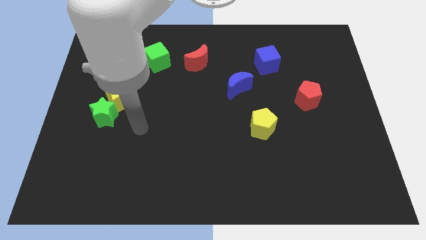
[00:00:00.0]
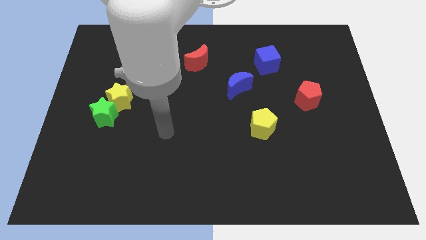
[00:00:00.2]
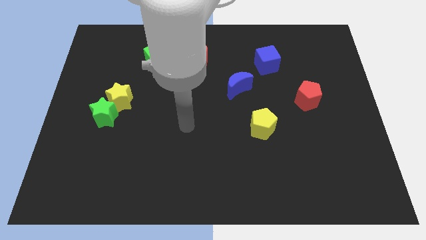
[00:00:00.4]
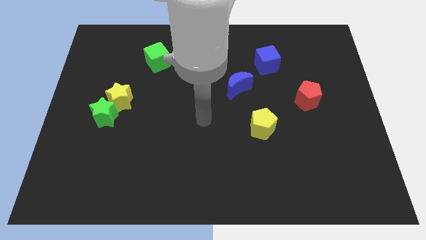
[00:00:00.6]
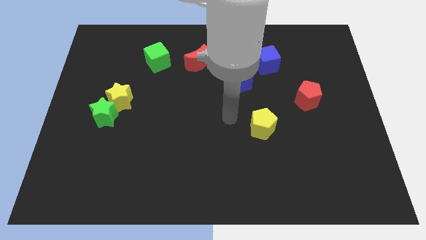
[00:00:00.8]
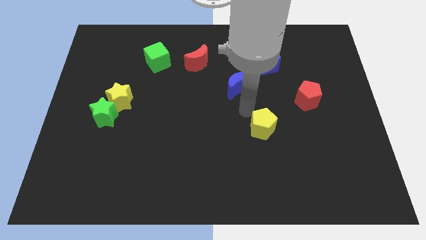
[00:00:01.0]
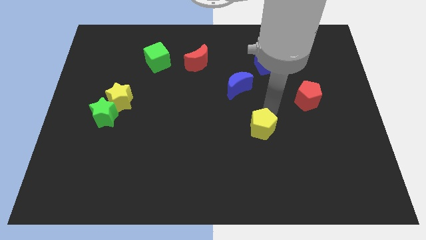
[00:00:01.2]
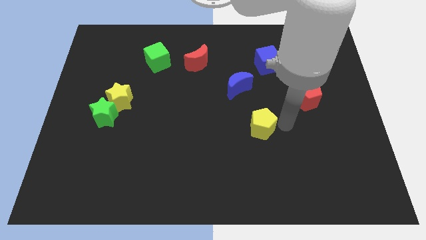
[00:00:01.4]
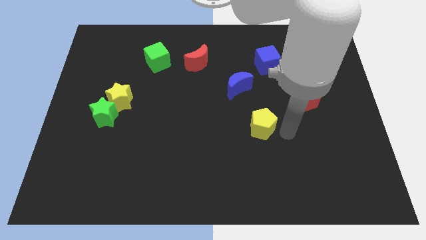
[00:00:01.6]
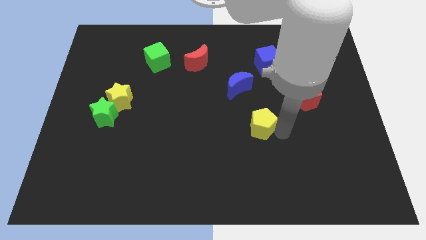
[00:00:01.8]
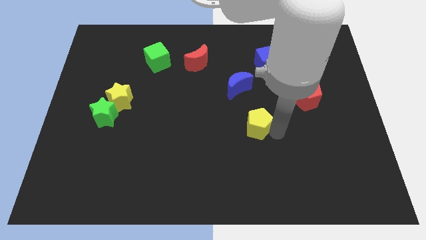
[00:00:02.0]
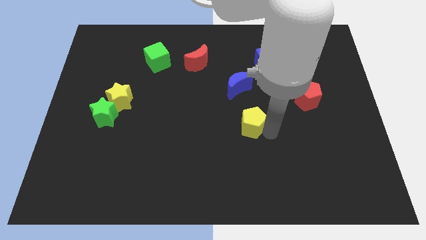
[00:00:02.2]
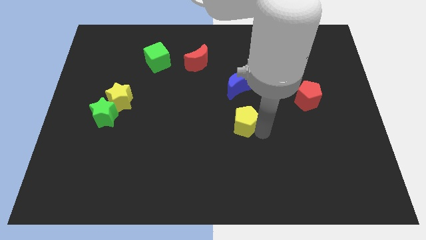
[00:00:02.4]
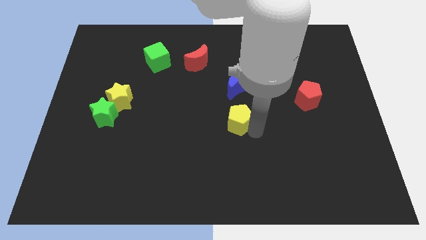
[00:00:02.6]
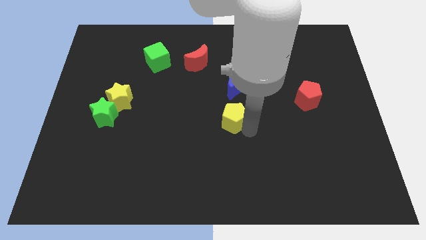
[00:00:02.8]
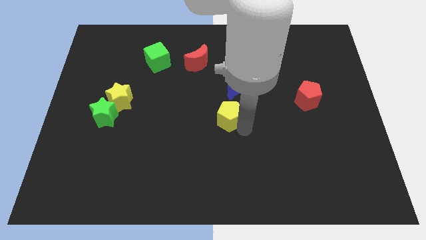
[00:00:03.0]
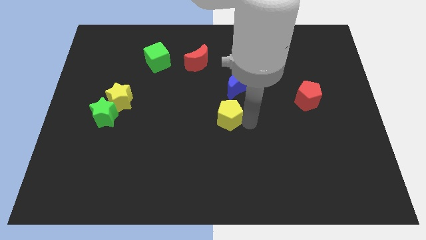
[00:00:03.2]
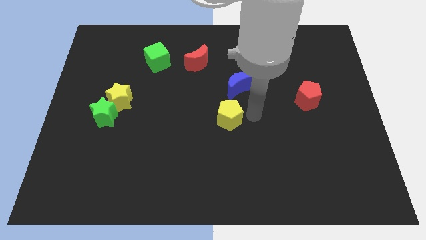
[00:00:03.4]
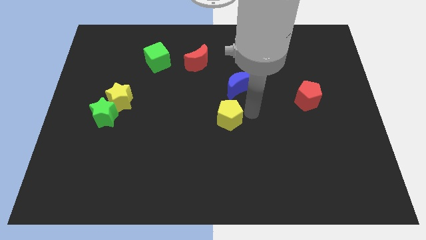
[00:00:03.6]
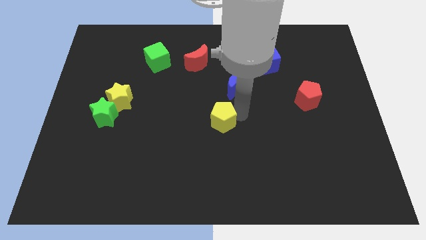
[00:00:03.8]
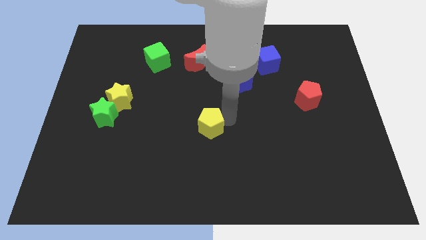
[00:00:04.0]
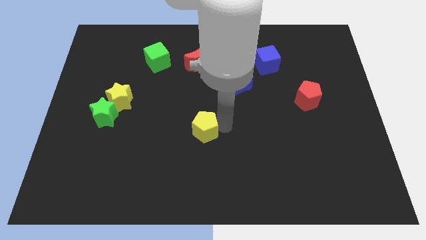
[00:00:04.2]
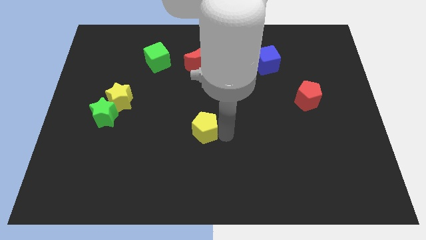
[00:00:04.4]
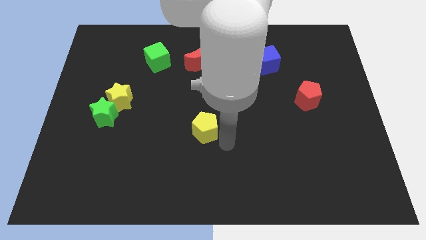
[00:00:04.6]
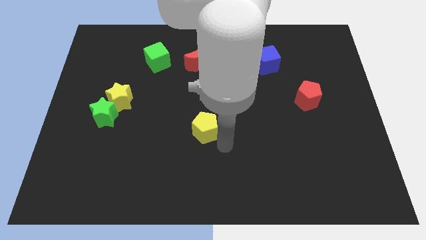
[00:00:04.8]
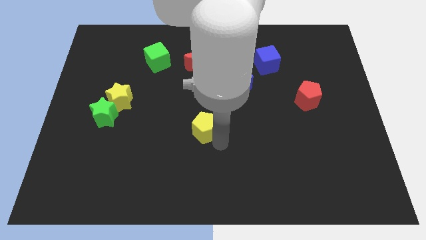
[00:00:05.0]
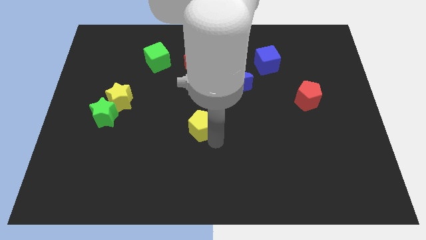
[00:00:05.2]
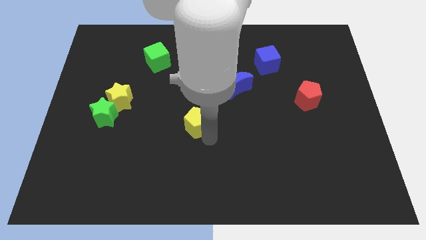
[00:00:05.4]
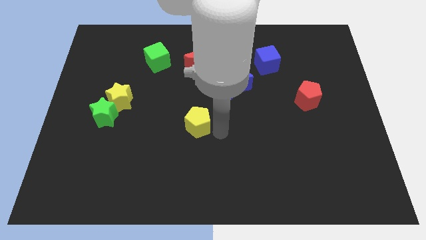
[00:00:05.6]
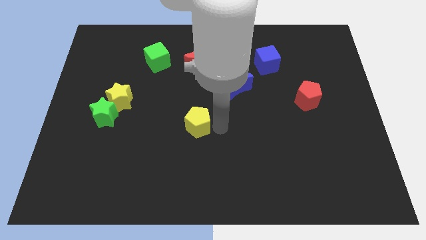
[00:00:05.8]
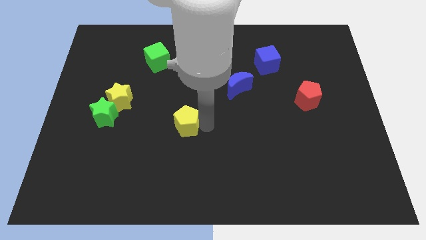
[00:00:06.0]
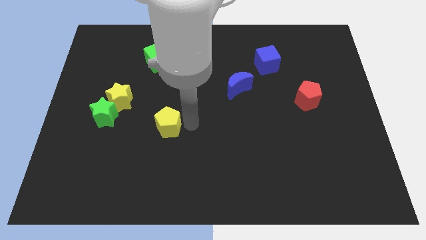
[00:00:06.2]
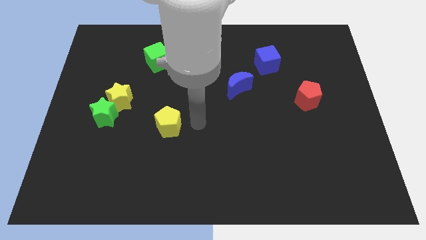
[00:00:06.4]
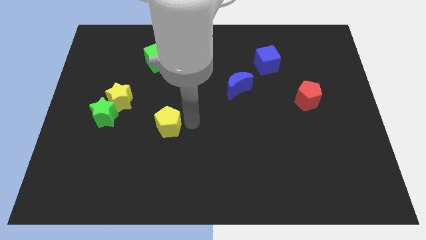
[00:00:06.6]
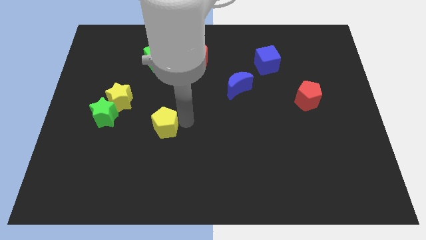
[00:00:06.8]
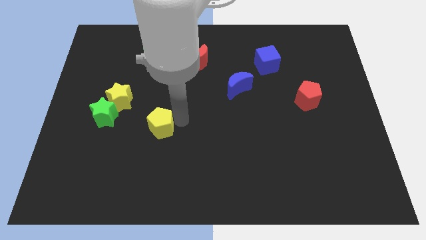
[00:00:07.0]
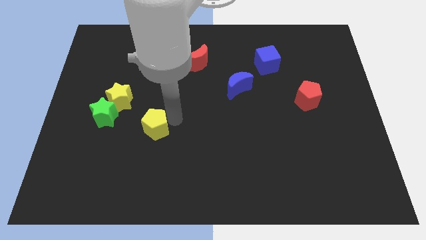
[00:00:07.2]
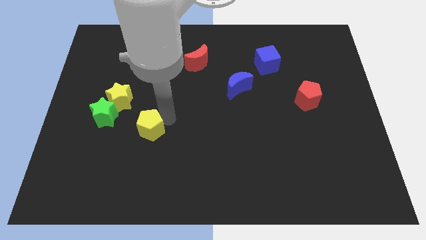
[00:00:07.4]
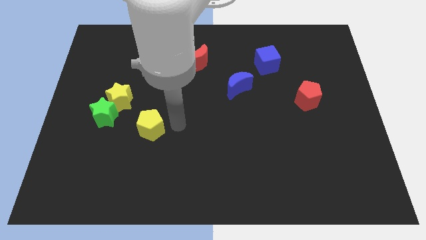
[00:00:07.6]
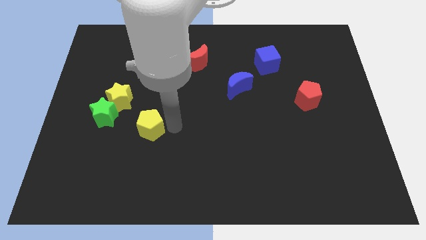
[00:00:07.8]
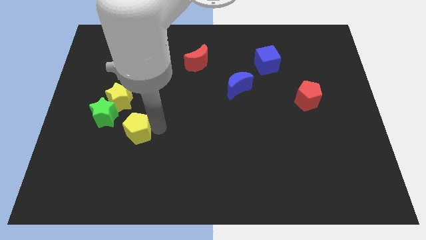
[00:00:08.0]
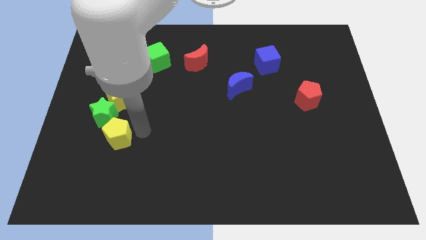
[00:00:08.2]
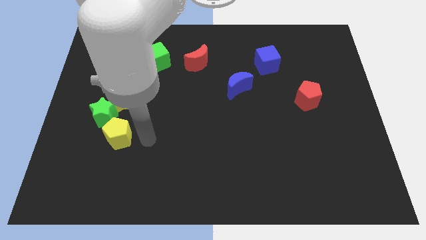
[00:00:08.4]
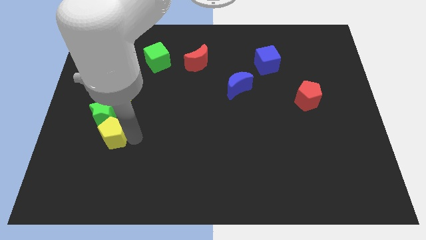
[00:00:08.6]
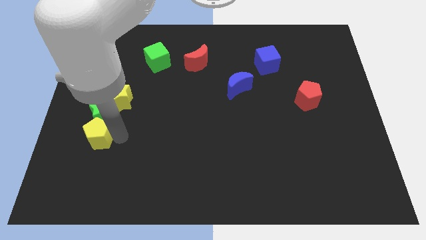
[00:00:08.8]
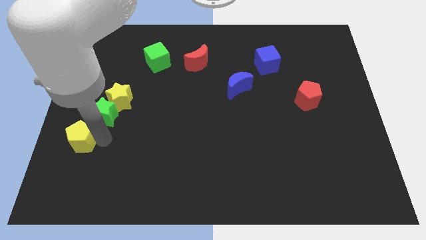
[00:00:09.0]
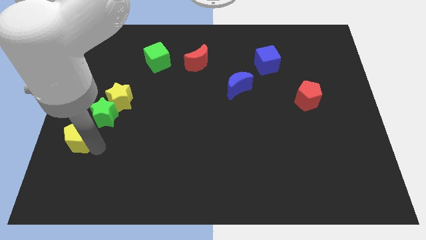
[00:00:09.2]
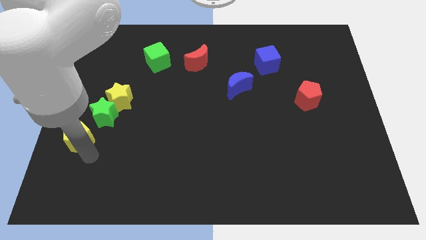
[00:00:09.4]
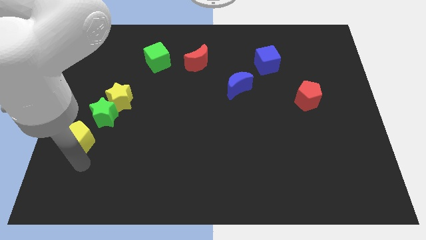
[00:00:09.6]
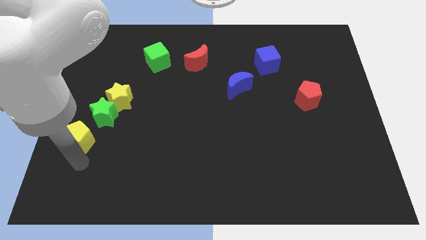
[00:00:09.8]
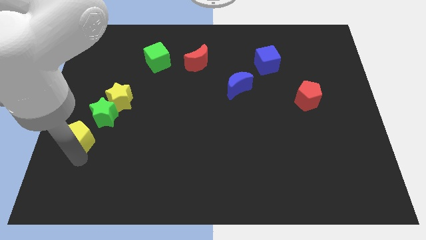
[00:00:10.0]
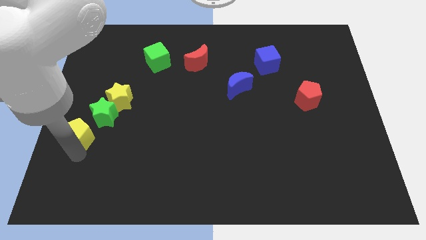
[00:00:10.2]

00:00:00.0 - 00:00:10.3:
put the yellow pentagon to the left side
